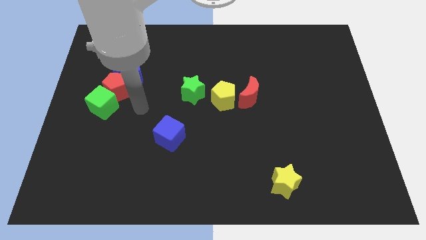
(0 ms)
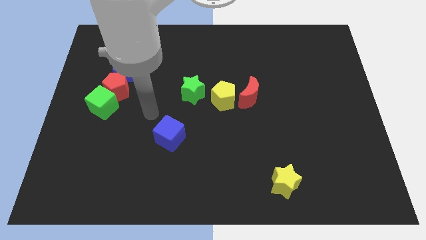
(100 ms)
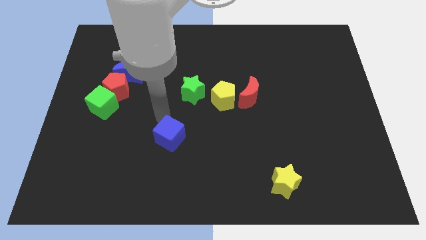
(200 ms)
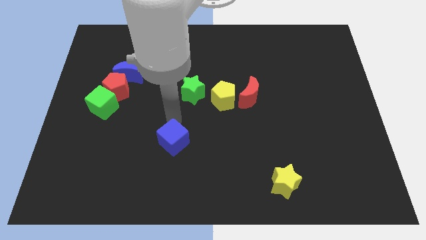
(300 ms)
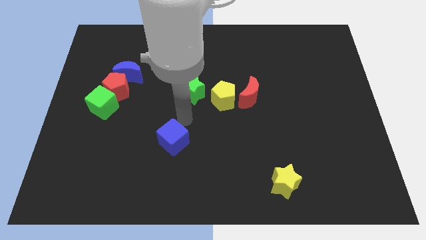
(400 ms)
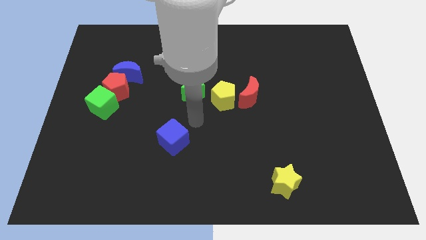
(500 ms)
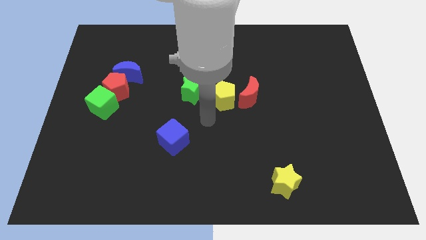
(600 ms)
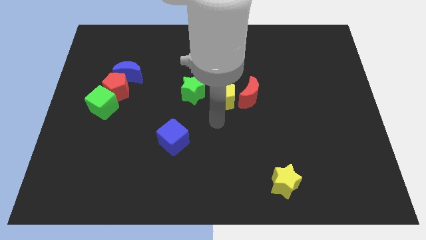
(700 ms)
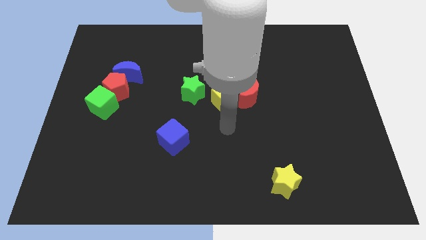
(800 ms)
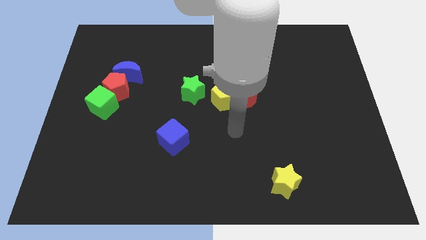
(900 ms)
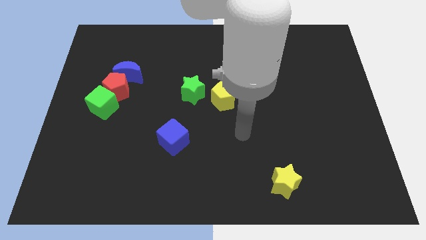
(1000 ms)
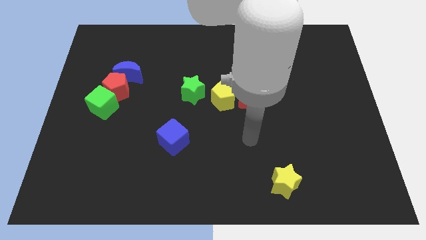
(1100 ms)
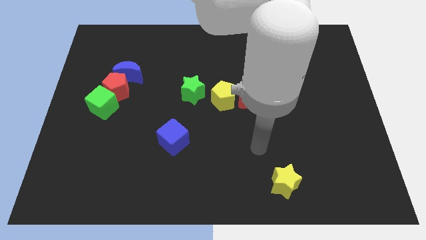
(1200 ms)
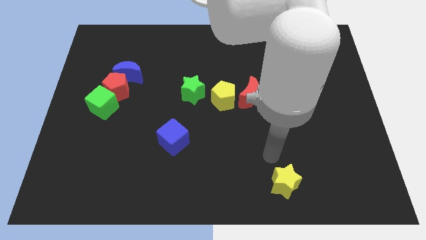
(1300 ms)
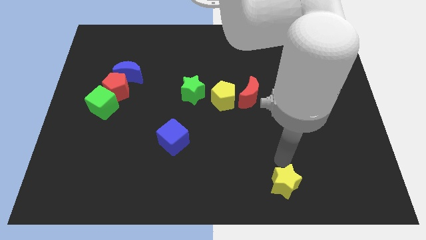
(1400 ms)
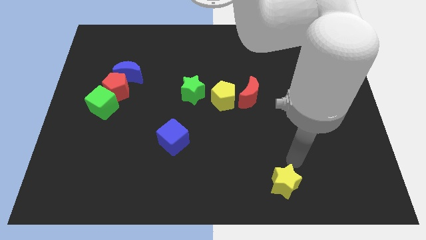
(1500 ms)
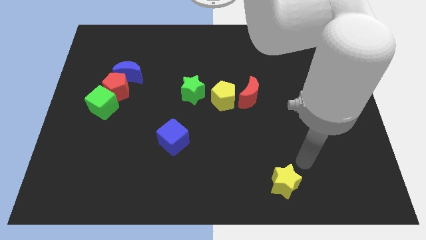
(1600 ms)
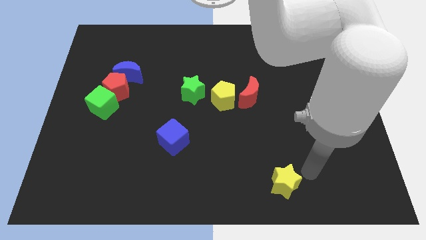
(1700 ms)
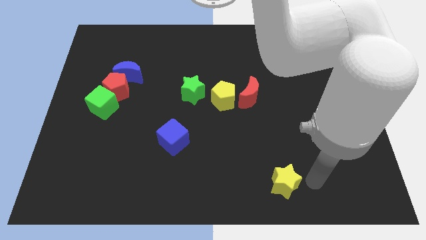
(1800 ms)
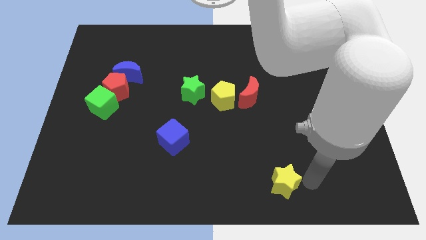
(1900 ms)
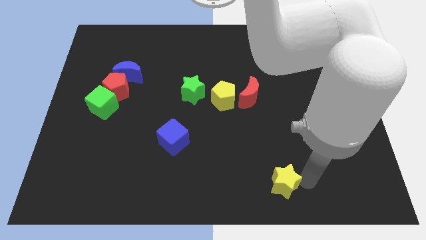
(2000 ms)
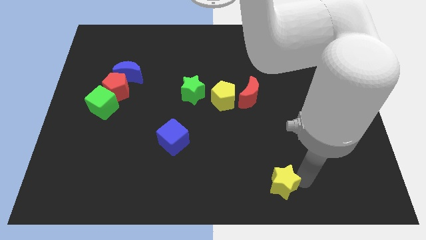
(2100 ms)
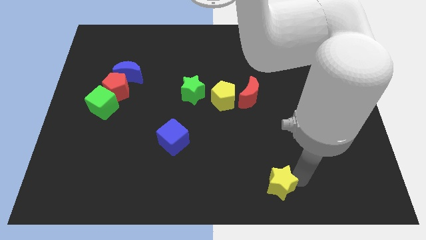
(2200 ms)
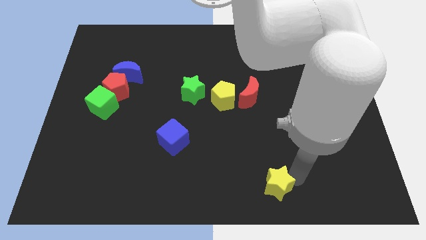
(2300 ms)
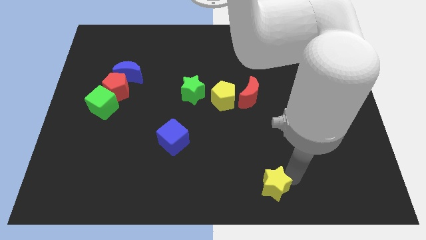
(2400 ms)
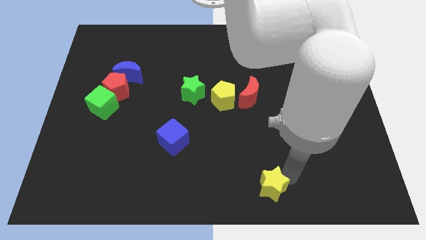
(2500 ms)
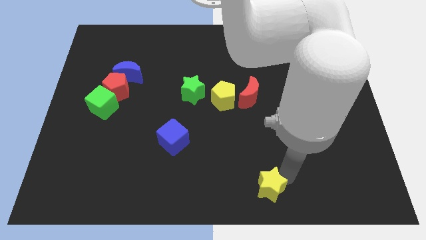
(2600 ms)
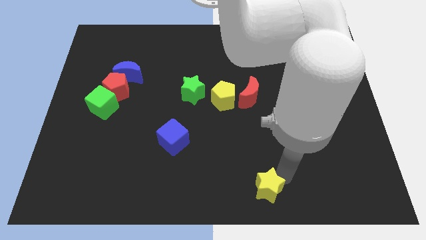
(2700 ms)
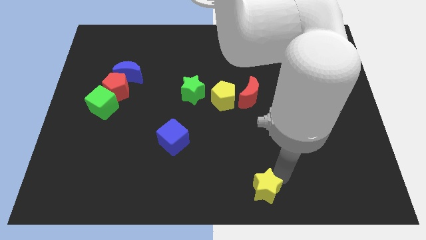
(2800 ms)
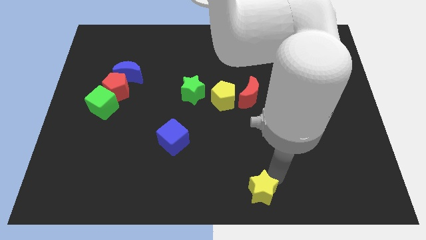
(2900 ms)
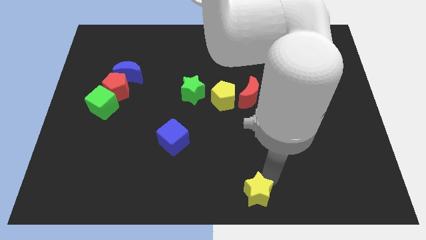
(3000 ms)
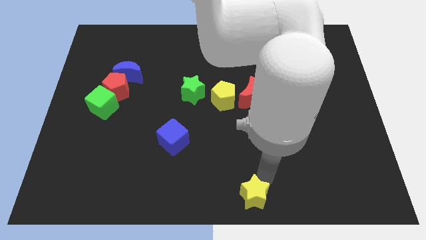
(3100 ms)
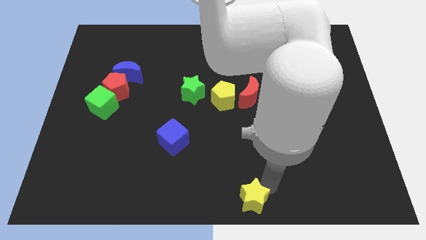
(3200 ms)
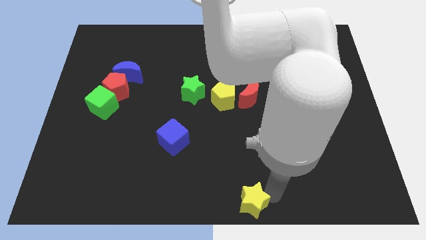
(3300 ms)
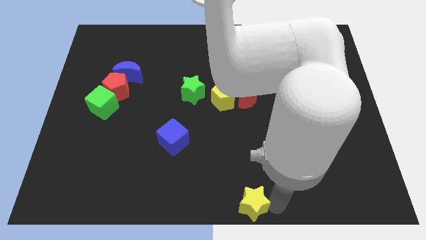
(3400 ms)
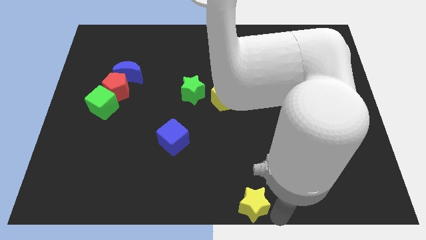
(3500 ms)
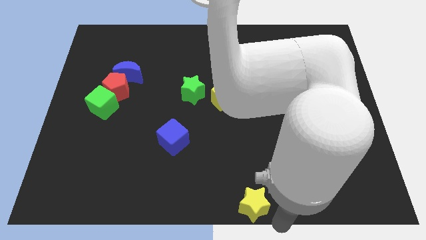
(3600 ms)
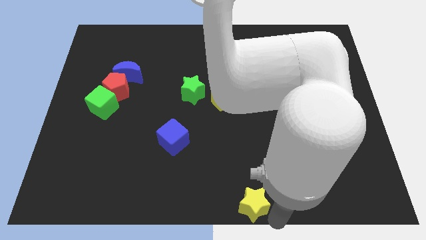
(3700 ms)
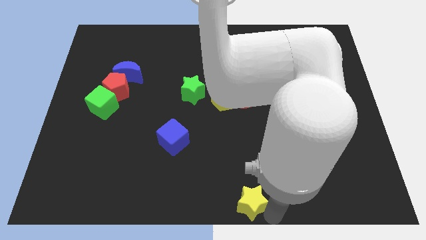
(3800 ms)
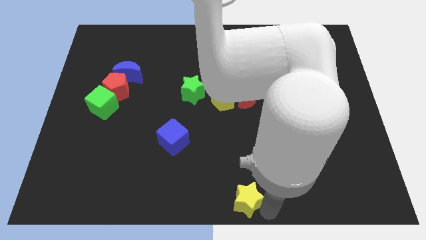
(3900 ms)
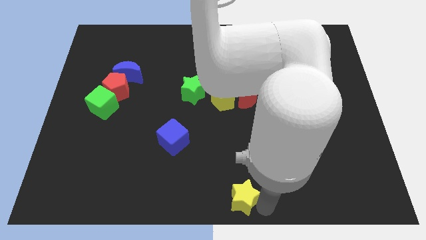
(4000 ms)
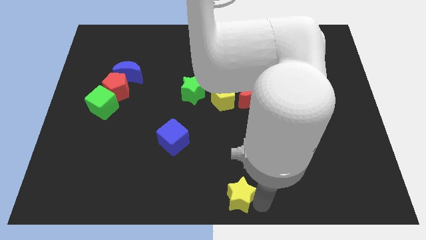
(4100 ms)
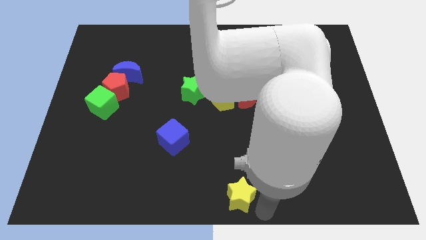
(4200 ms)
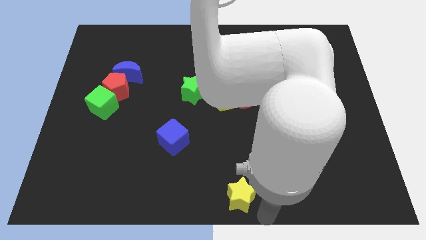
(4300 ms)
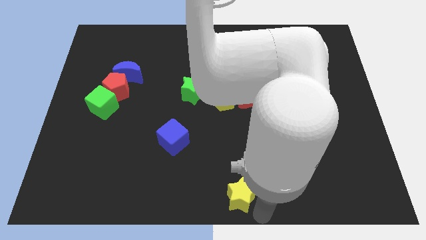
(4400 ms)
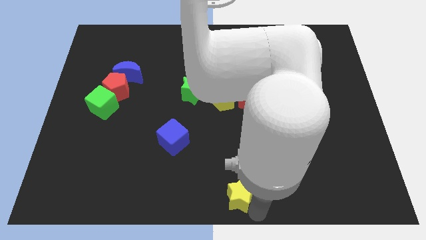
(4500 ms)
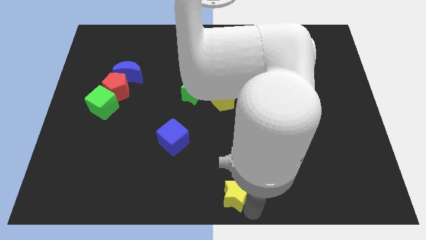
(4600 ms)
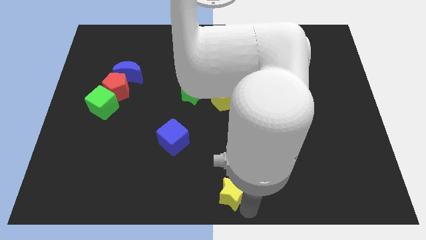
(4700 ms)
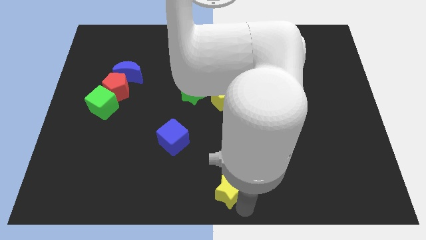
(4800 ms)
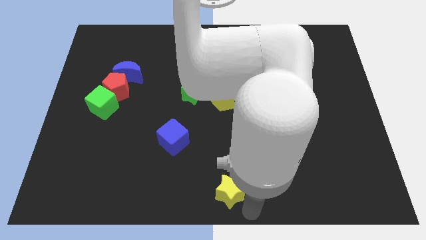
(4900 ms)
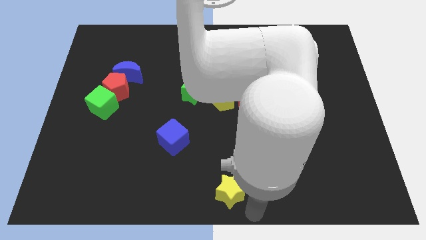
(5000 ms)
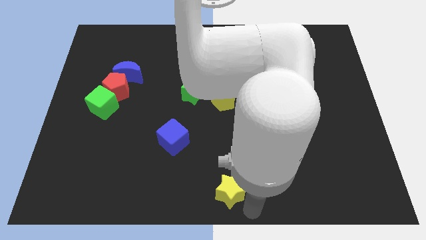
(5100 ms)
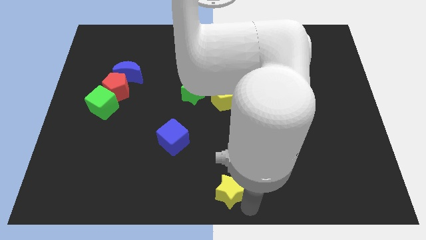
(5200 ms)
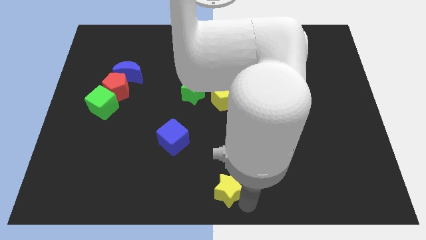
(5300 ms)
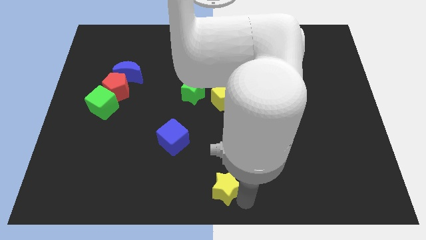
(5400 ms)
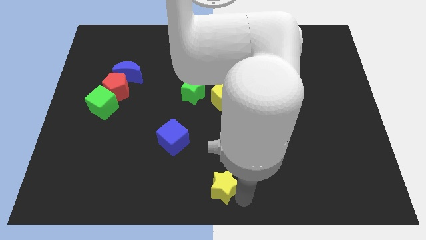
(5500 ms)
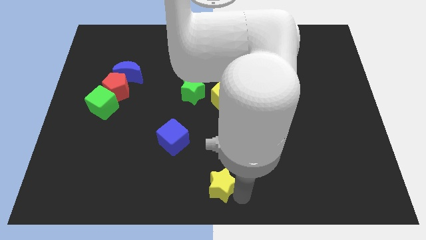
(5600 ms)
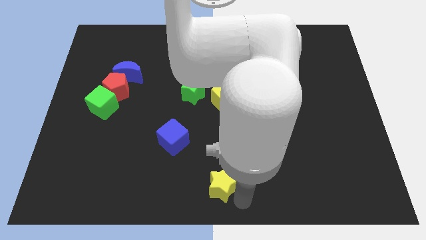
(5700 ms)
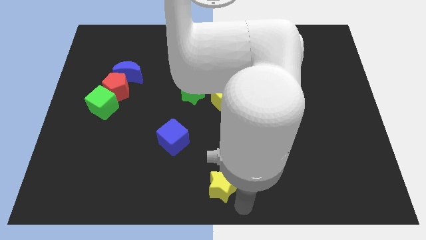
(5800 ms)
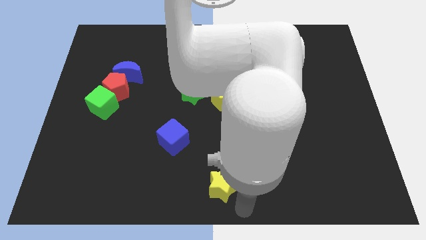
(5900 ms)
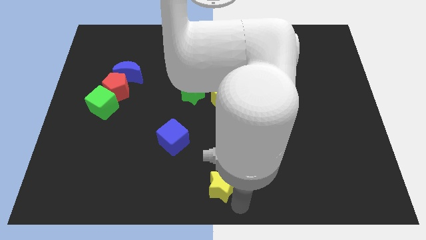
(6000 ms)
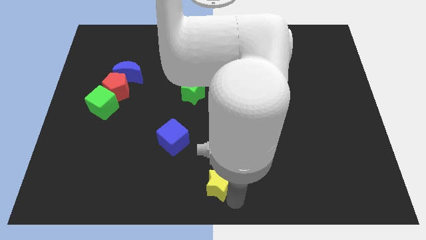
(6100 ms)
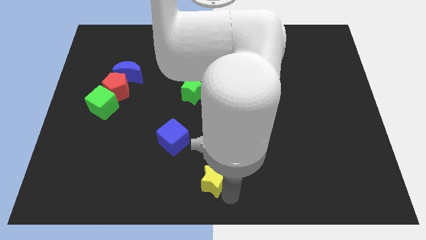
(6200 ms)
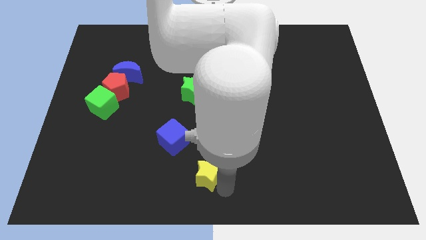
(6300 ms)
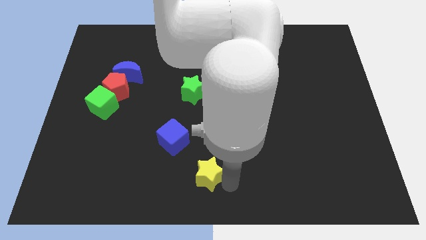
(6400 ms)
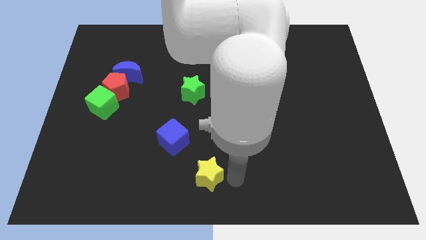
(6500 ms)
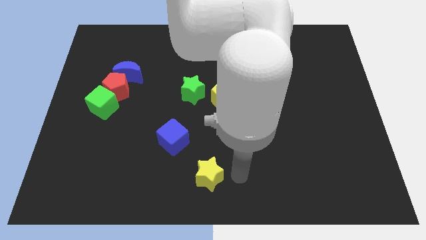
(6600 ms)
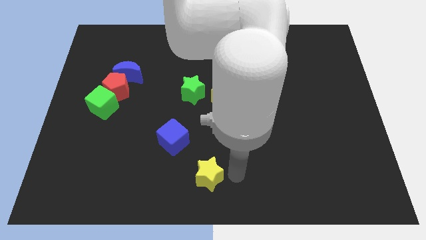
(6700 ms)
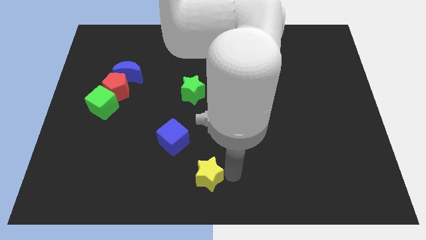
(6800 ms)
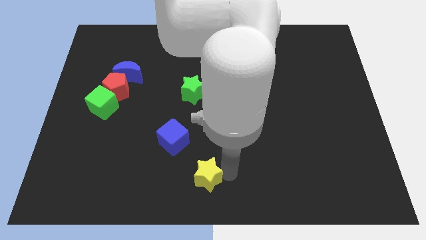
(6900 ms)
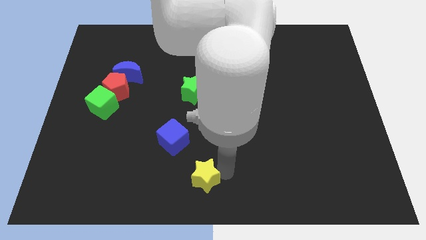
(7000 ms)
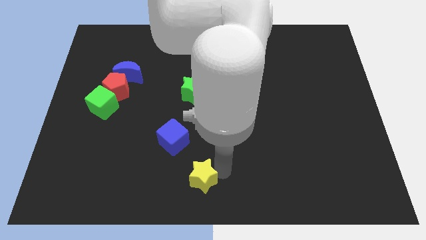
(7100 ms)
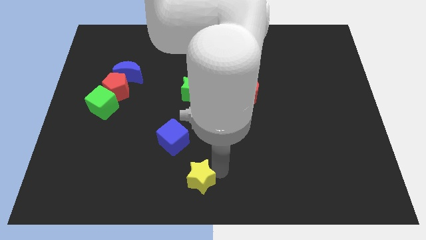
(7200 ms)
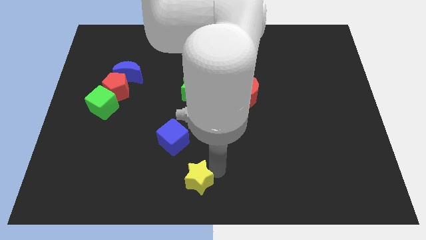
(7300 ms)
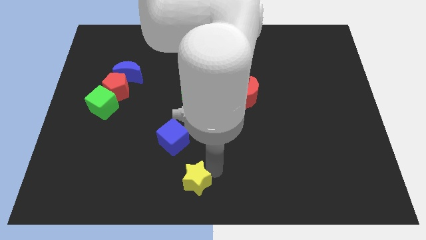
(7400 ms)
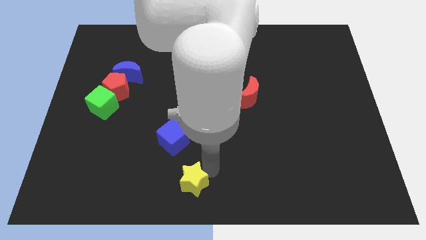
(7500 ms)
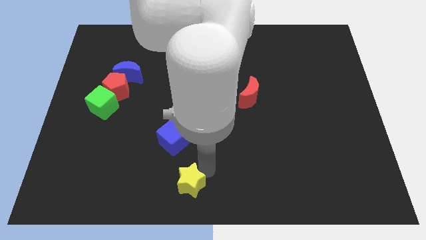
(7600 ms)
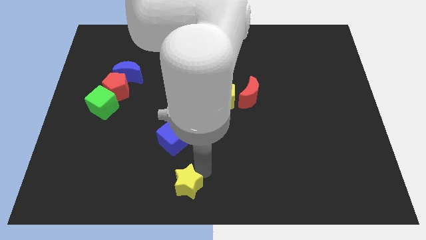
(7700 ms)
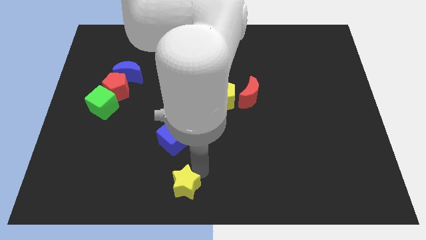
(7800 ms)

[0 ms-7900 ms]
slide the yellow star left

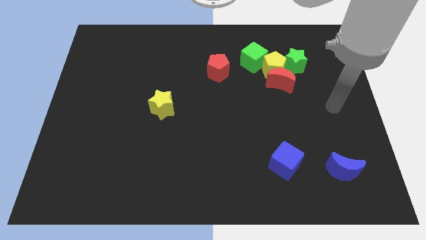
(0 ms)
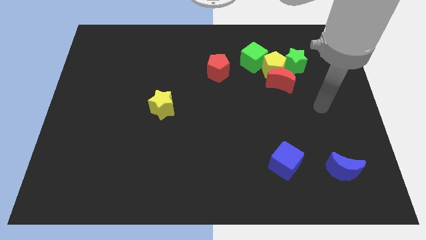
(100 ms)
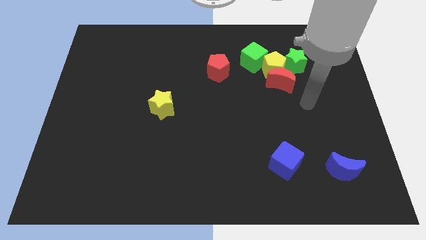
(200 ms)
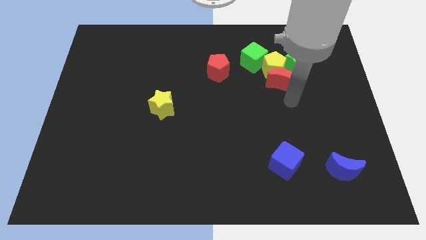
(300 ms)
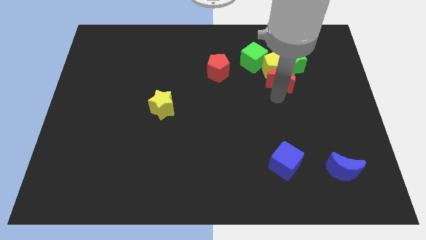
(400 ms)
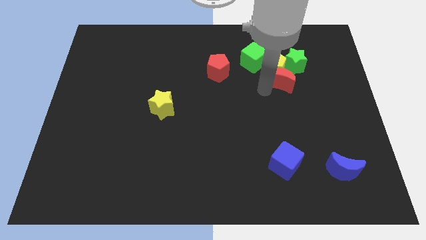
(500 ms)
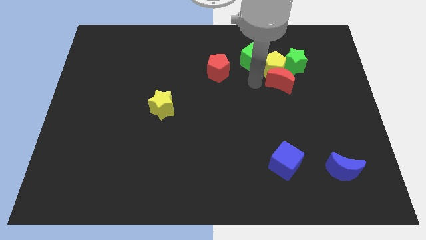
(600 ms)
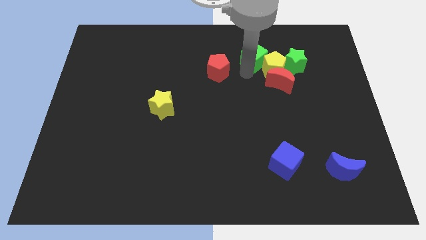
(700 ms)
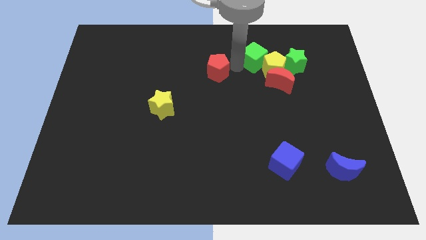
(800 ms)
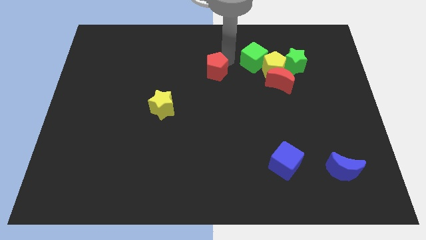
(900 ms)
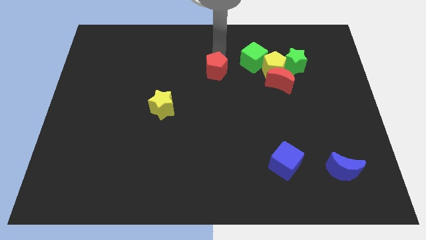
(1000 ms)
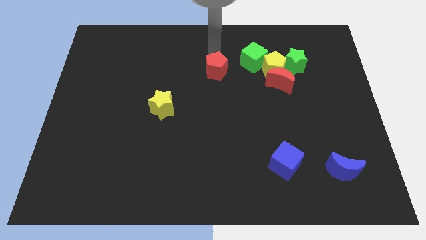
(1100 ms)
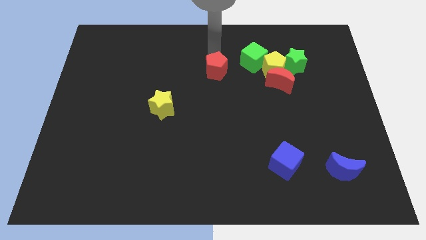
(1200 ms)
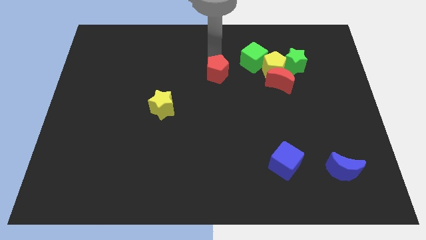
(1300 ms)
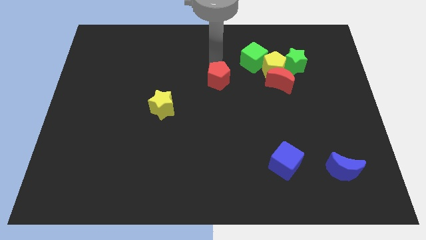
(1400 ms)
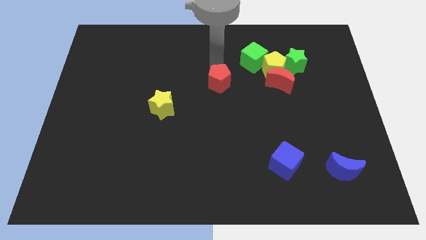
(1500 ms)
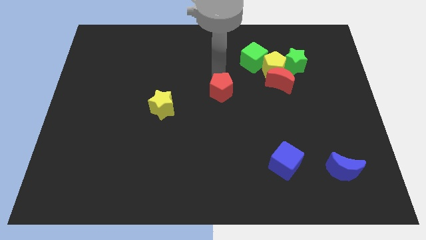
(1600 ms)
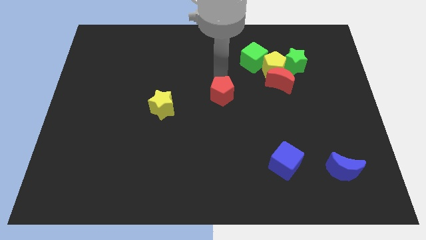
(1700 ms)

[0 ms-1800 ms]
move the red pentagon a little bit downwards
